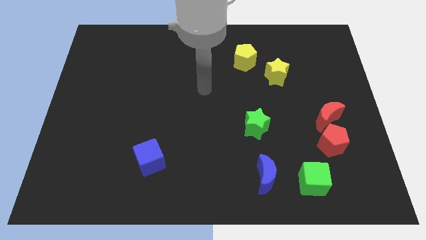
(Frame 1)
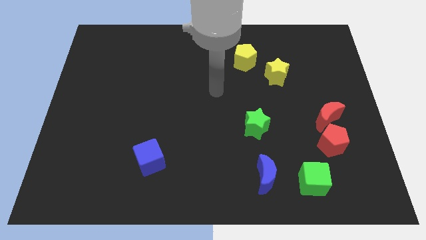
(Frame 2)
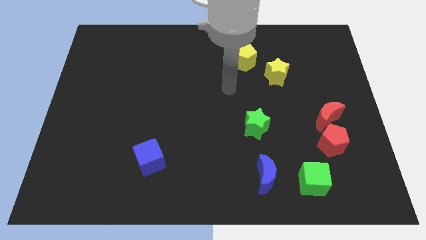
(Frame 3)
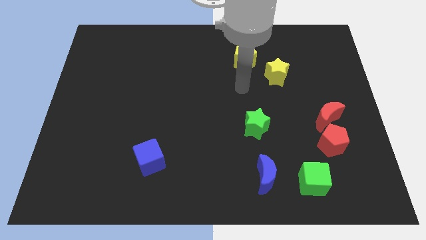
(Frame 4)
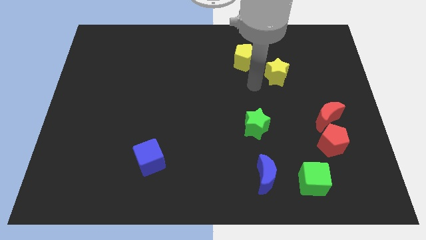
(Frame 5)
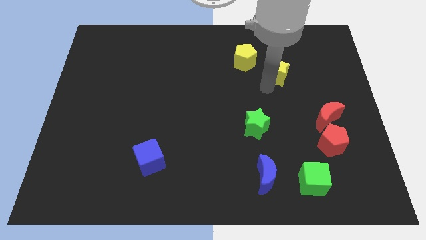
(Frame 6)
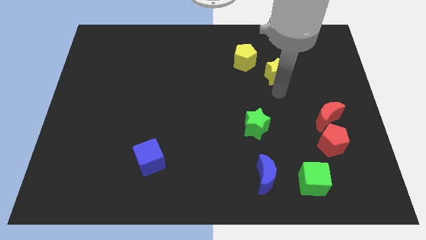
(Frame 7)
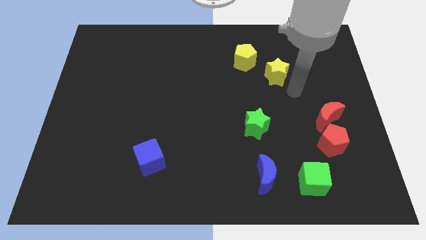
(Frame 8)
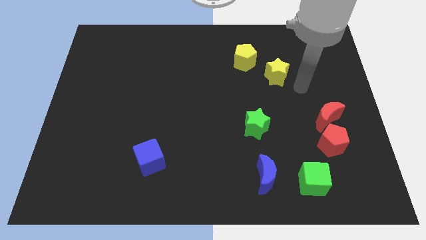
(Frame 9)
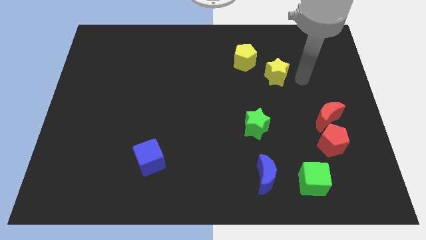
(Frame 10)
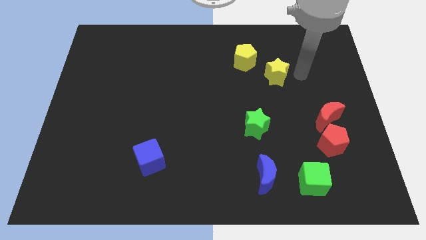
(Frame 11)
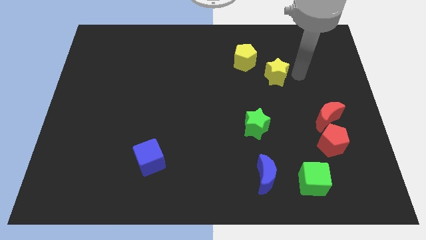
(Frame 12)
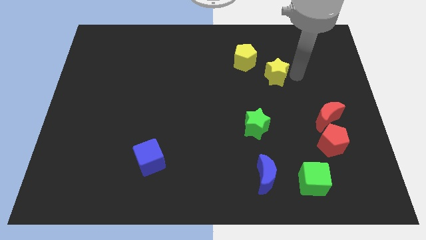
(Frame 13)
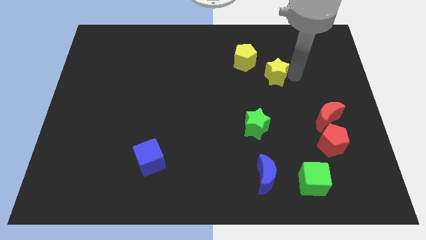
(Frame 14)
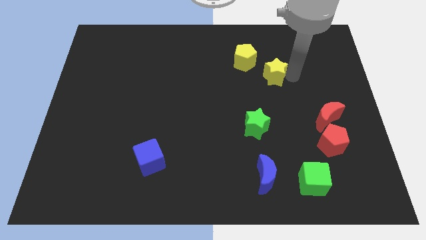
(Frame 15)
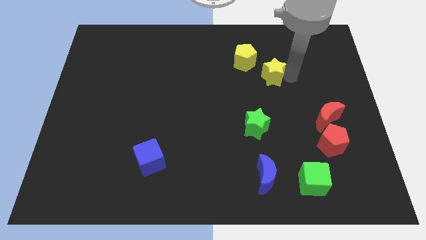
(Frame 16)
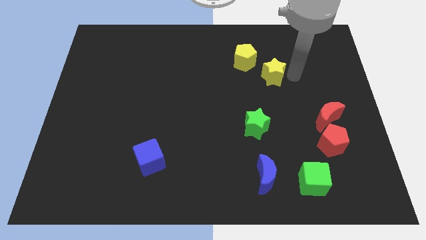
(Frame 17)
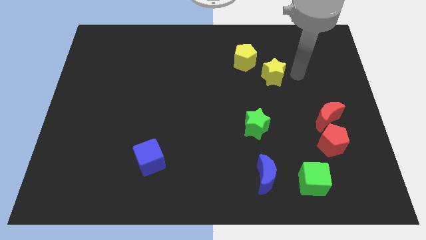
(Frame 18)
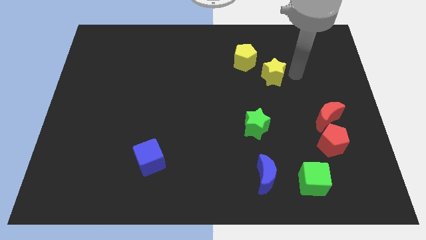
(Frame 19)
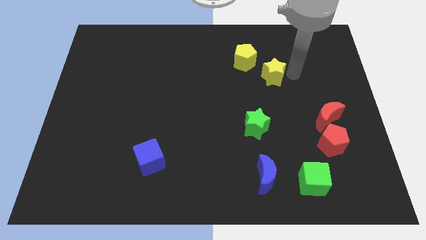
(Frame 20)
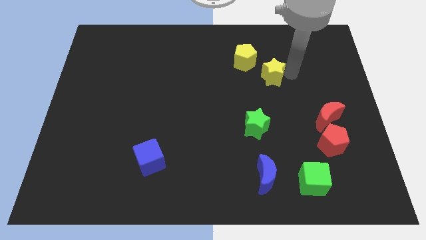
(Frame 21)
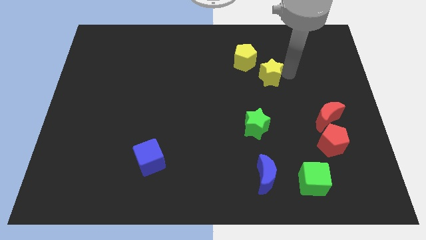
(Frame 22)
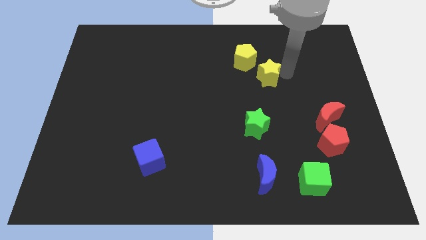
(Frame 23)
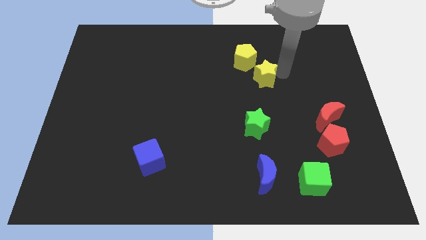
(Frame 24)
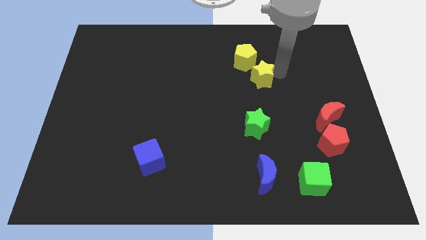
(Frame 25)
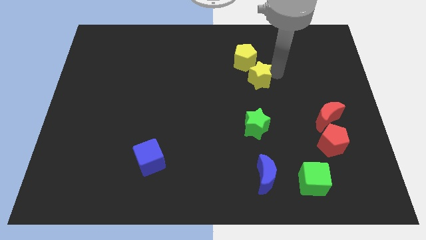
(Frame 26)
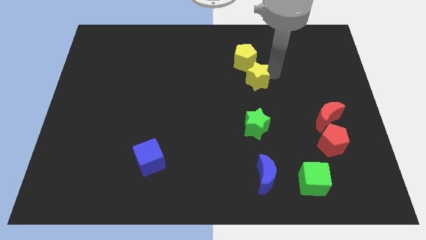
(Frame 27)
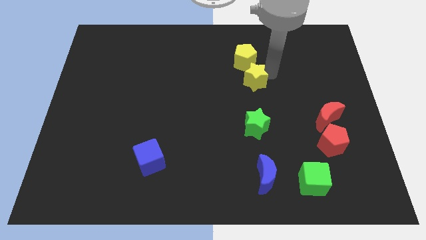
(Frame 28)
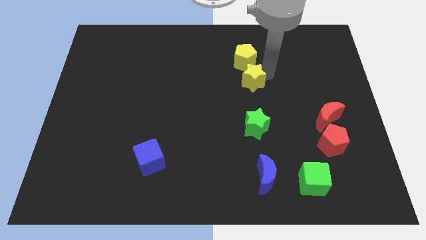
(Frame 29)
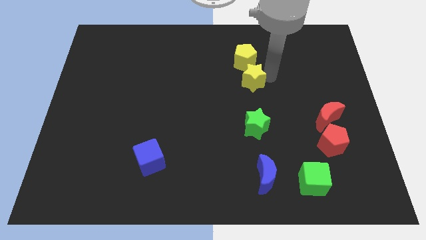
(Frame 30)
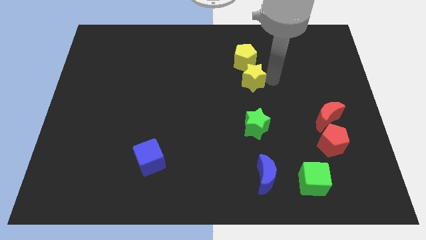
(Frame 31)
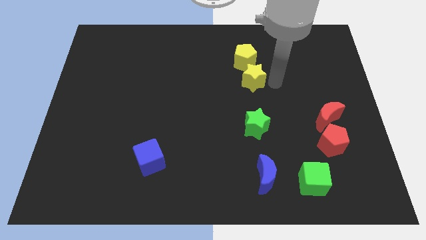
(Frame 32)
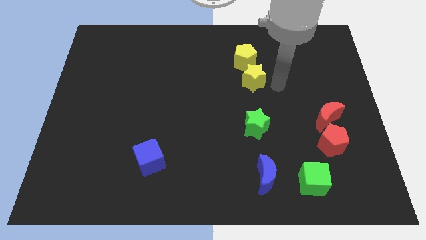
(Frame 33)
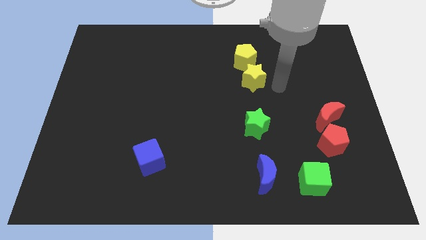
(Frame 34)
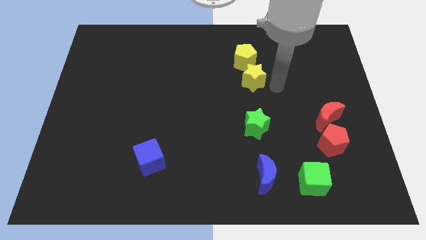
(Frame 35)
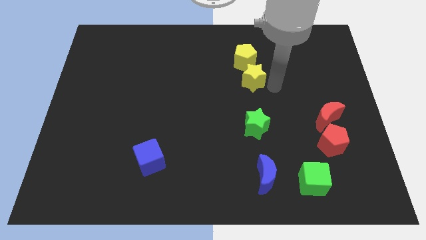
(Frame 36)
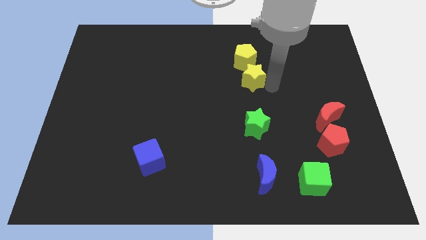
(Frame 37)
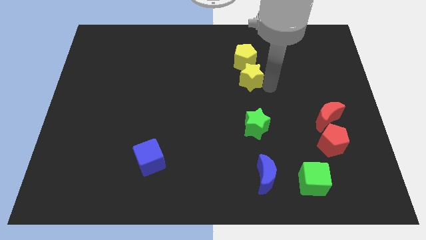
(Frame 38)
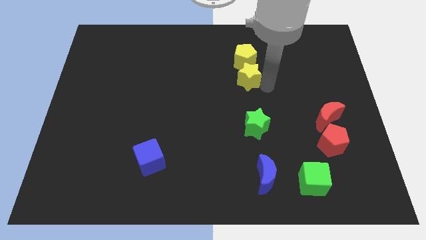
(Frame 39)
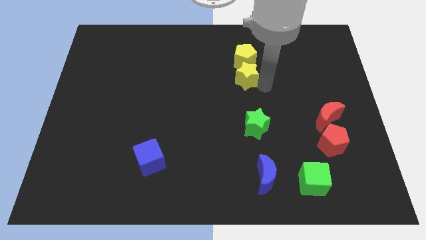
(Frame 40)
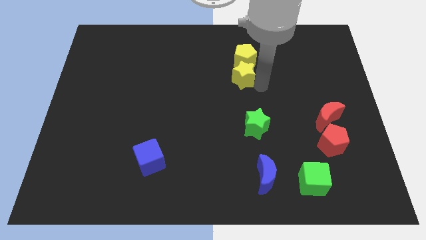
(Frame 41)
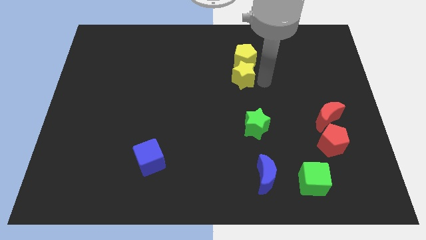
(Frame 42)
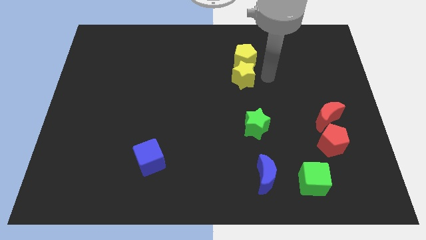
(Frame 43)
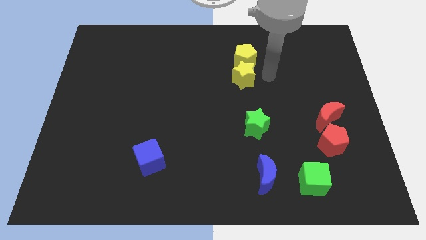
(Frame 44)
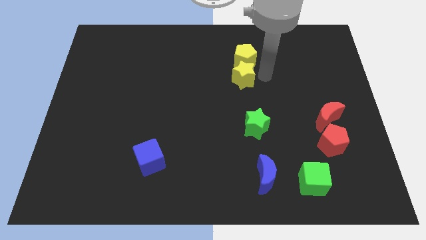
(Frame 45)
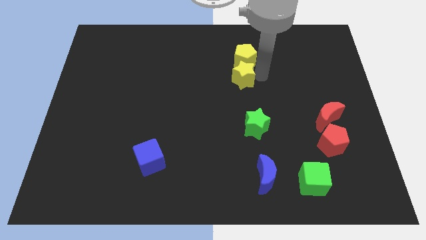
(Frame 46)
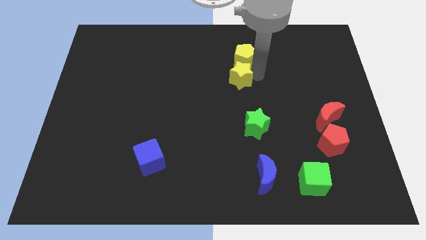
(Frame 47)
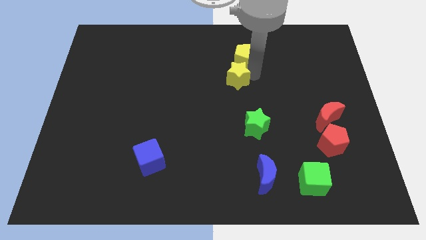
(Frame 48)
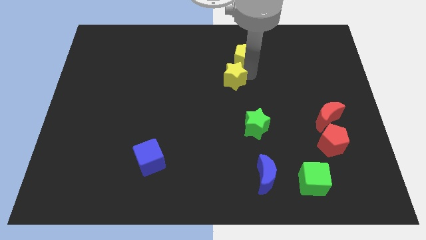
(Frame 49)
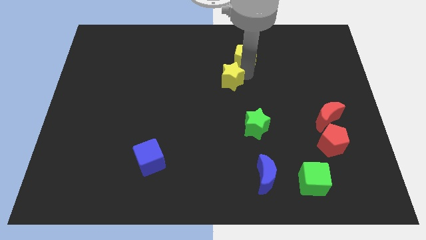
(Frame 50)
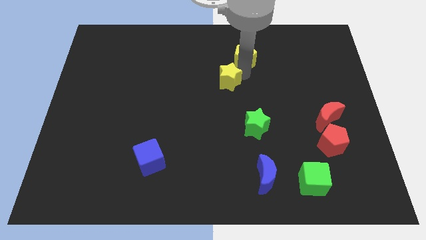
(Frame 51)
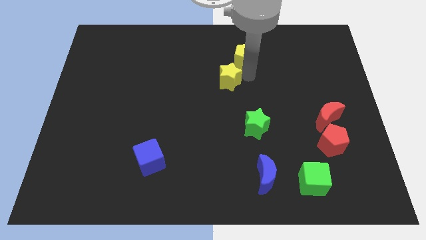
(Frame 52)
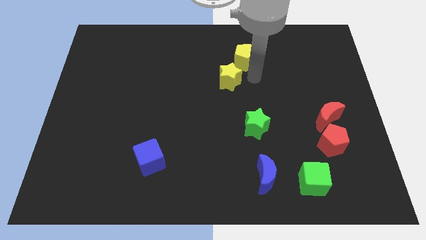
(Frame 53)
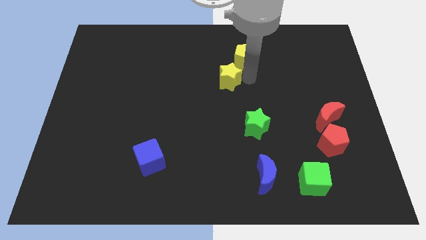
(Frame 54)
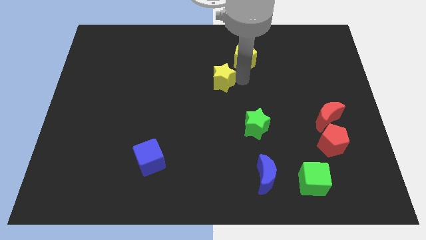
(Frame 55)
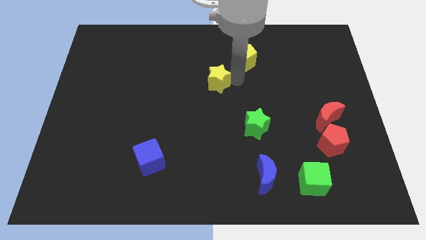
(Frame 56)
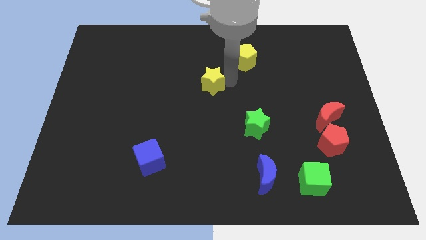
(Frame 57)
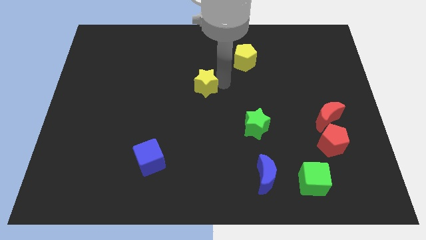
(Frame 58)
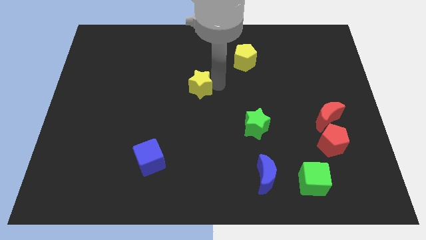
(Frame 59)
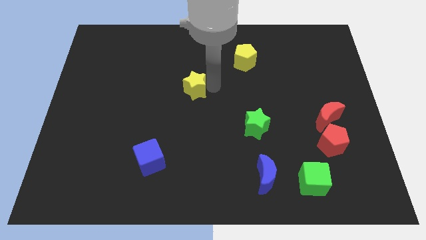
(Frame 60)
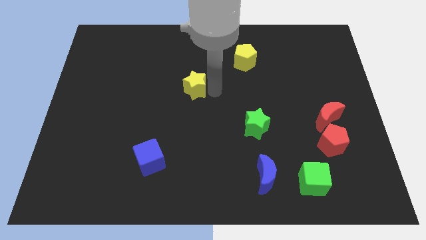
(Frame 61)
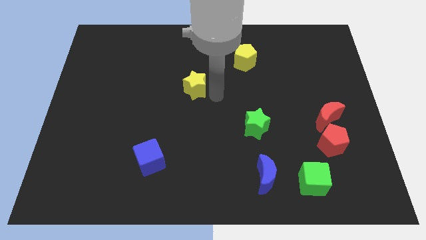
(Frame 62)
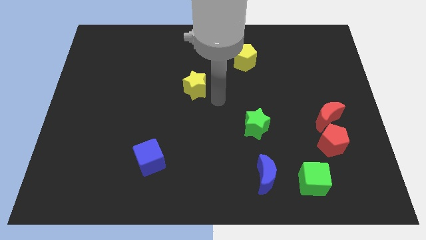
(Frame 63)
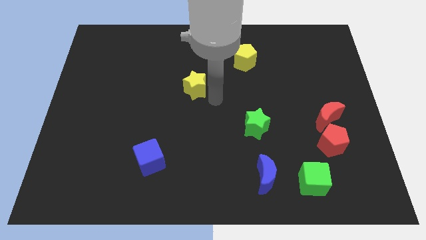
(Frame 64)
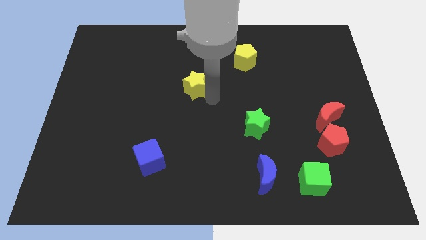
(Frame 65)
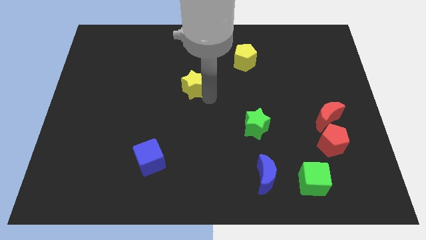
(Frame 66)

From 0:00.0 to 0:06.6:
move the yellow star left

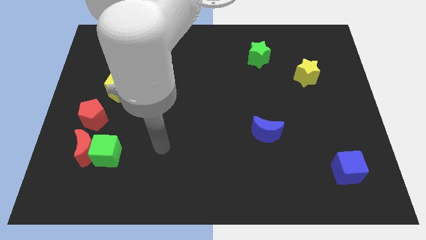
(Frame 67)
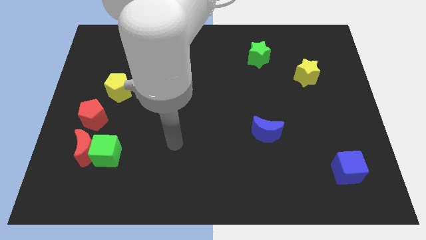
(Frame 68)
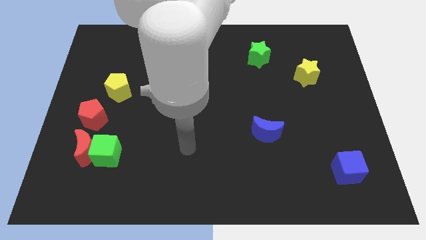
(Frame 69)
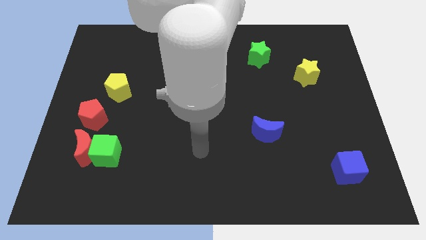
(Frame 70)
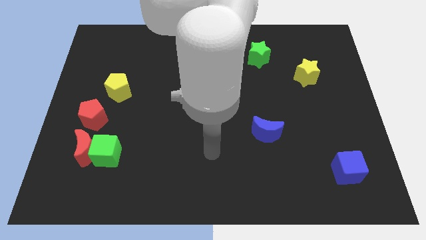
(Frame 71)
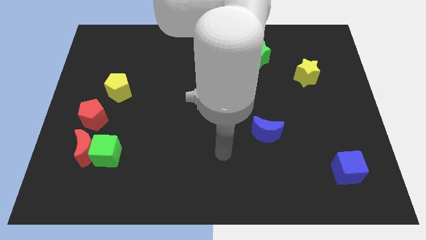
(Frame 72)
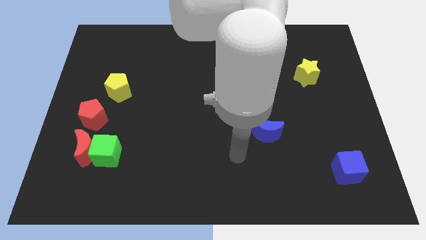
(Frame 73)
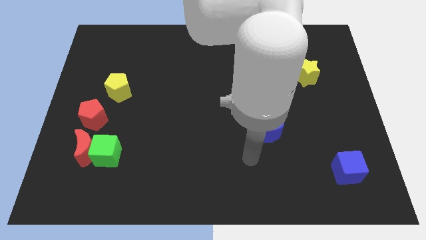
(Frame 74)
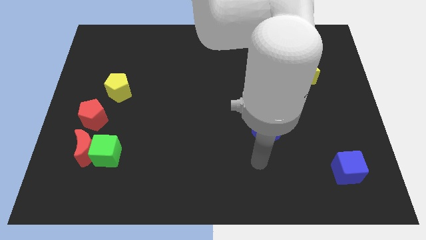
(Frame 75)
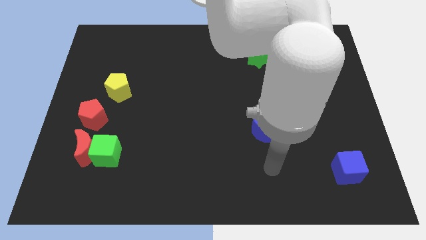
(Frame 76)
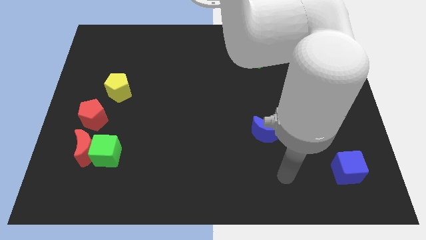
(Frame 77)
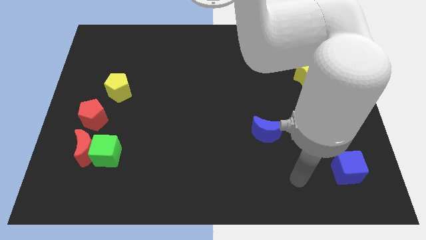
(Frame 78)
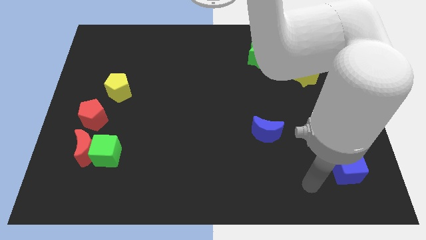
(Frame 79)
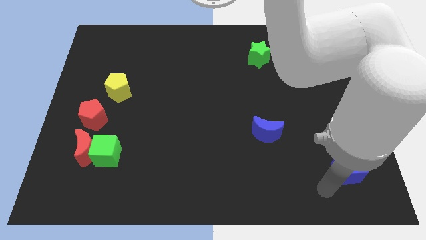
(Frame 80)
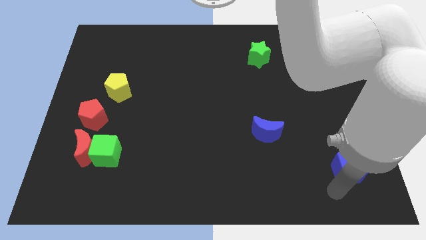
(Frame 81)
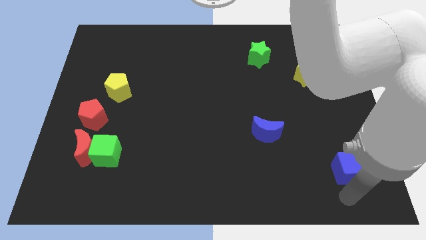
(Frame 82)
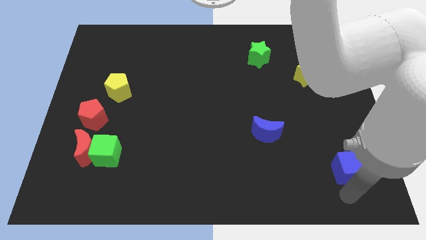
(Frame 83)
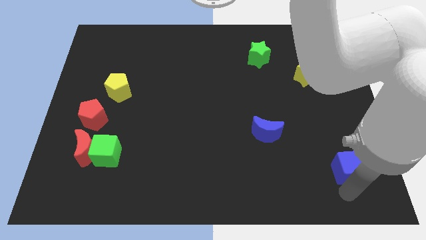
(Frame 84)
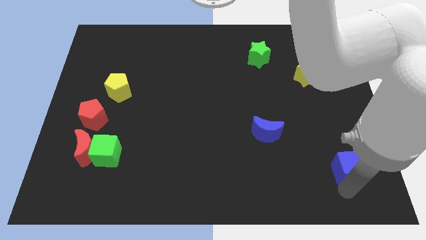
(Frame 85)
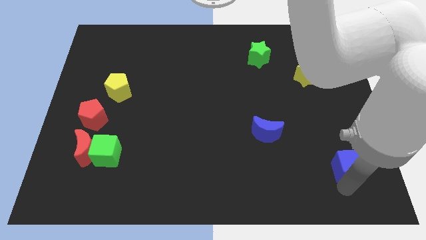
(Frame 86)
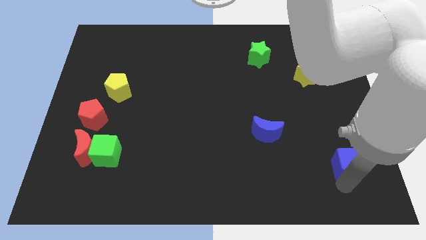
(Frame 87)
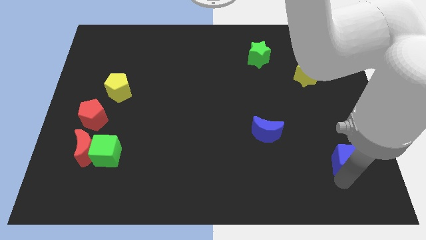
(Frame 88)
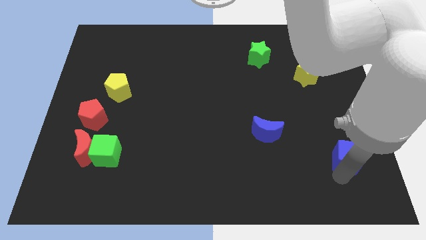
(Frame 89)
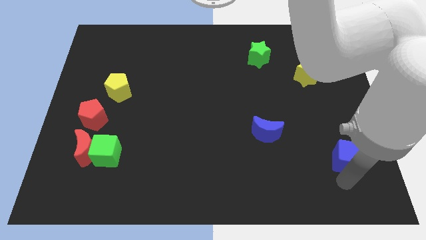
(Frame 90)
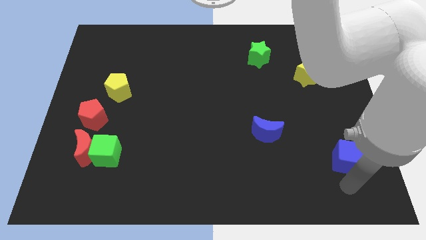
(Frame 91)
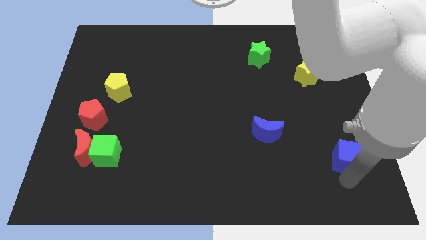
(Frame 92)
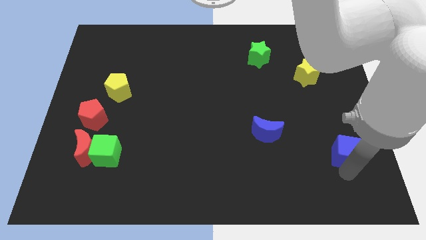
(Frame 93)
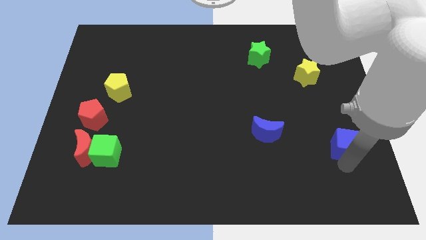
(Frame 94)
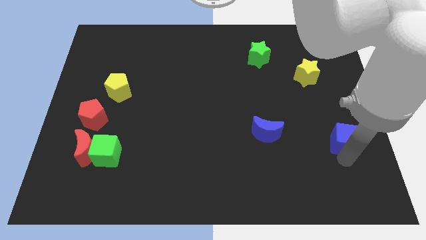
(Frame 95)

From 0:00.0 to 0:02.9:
slightly push the blue cube up
